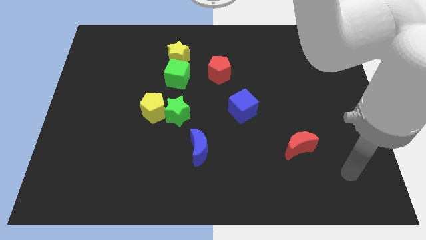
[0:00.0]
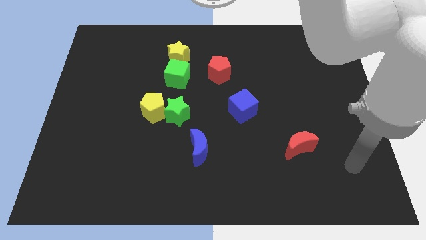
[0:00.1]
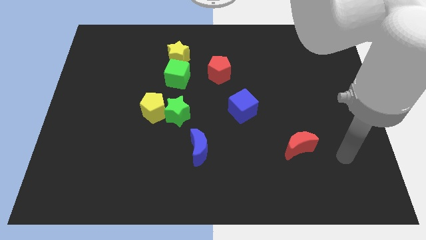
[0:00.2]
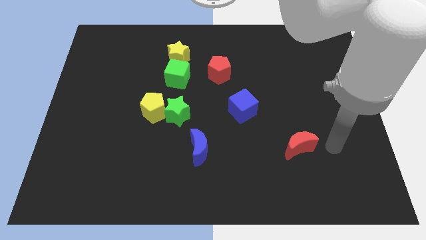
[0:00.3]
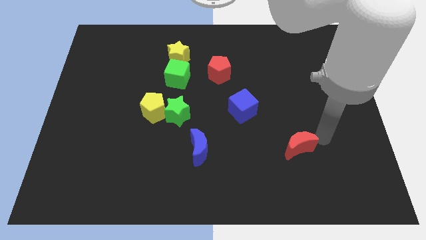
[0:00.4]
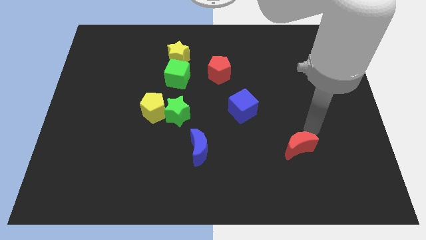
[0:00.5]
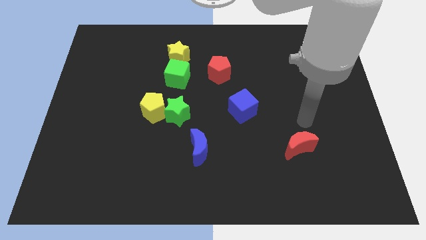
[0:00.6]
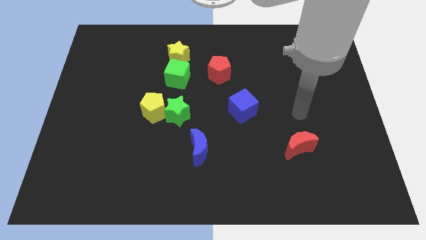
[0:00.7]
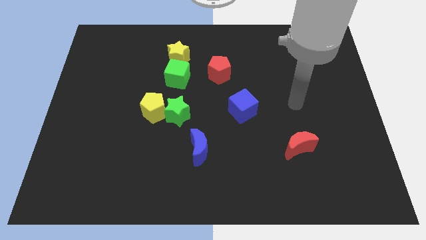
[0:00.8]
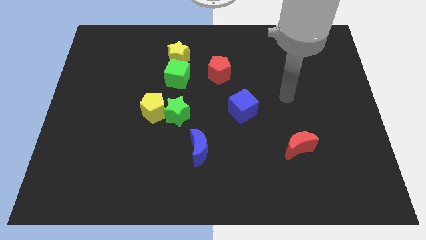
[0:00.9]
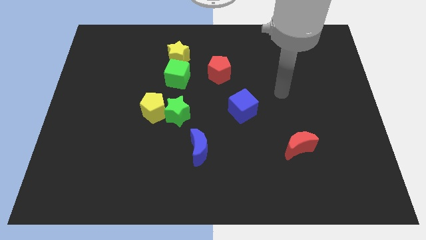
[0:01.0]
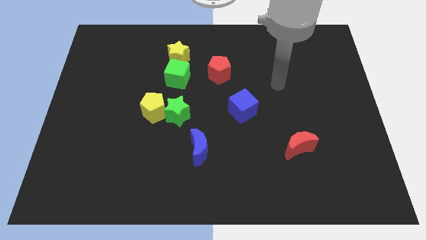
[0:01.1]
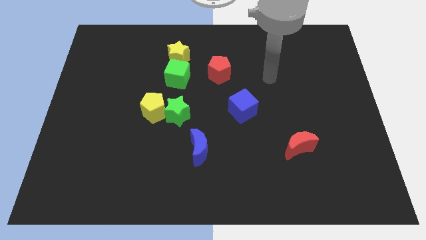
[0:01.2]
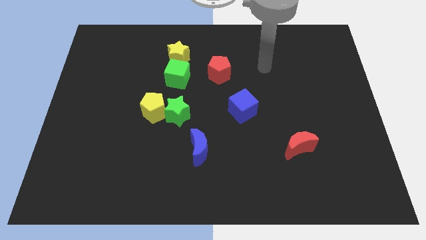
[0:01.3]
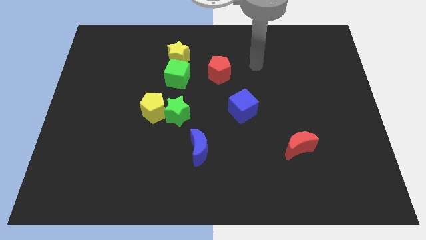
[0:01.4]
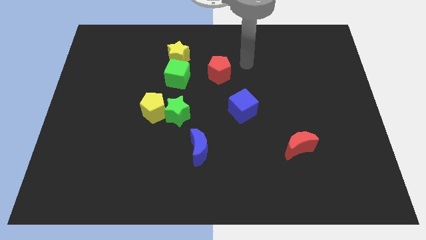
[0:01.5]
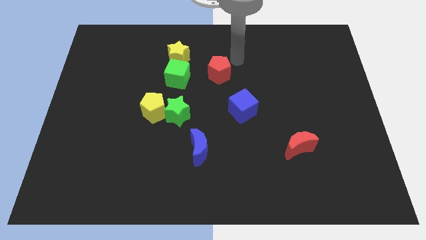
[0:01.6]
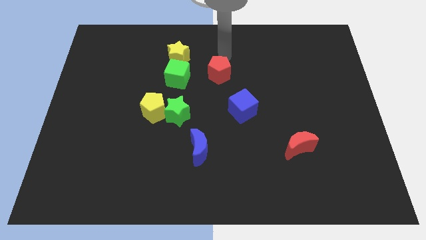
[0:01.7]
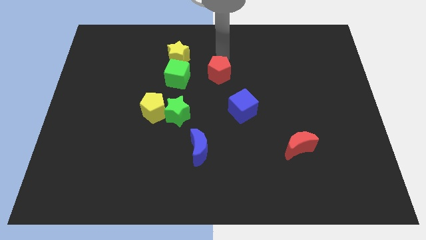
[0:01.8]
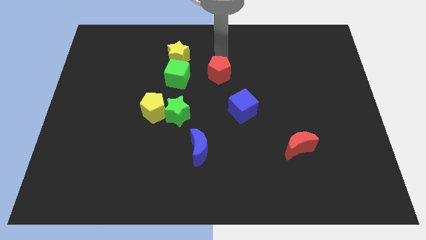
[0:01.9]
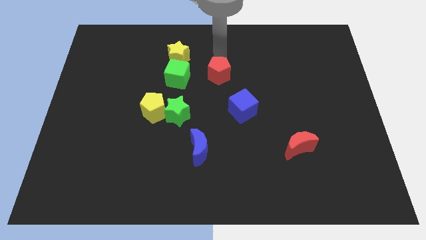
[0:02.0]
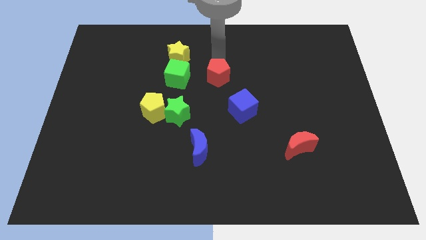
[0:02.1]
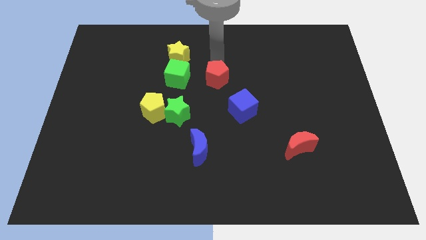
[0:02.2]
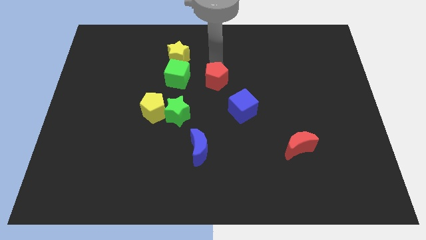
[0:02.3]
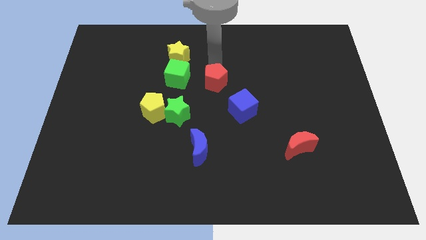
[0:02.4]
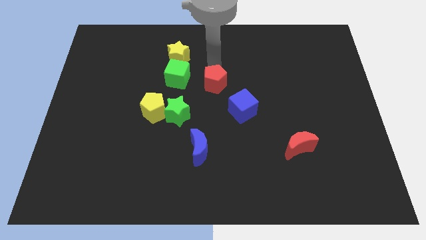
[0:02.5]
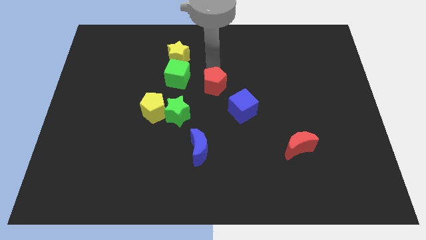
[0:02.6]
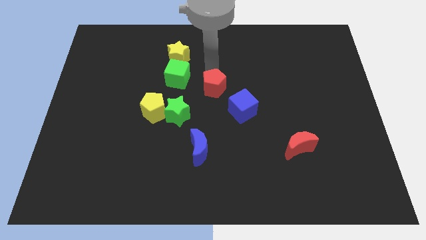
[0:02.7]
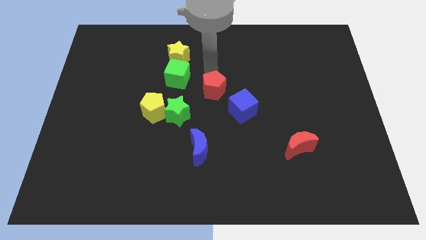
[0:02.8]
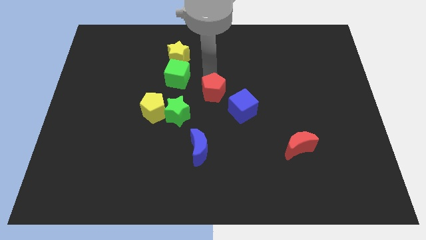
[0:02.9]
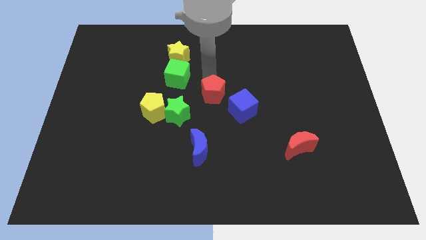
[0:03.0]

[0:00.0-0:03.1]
push the red pentagon downwards a little bit

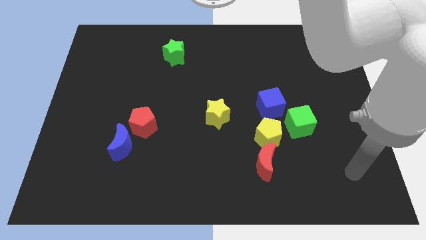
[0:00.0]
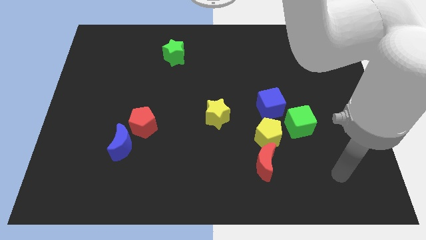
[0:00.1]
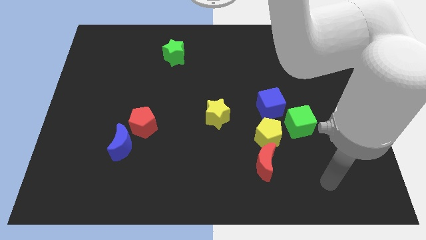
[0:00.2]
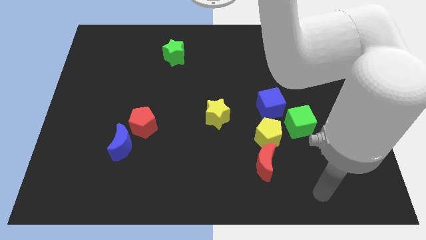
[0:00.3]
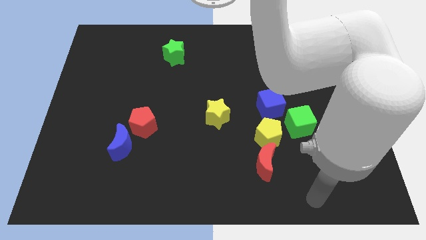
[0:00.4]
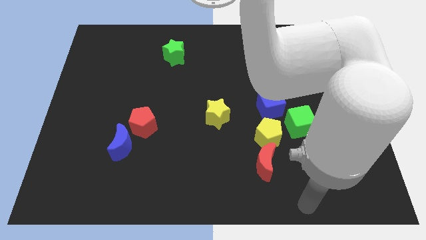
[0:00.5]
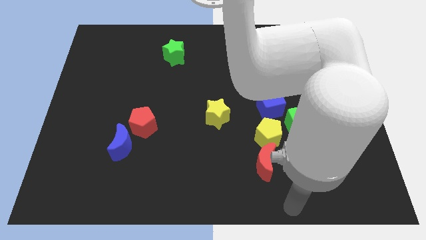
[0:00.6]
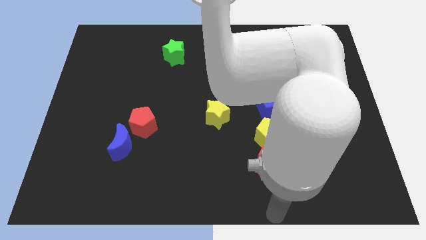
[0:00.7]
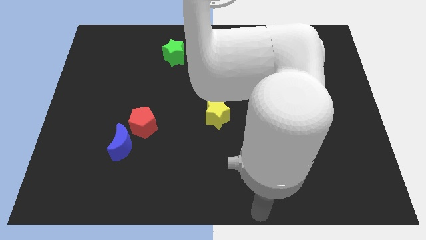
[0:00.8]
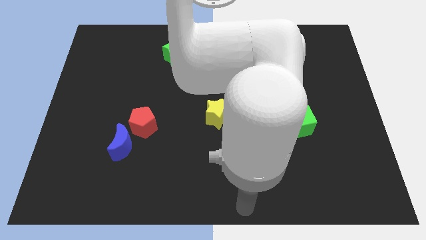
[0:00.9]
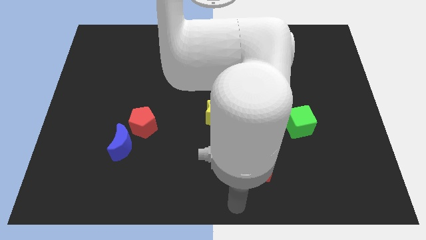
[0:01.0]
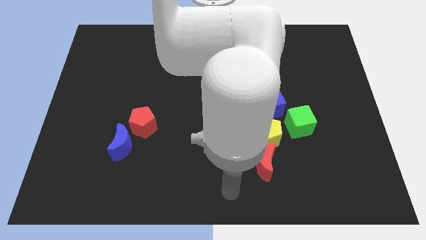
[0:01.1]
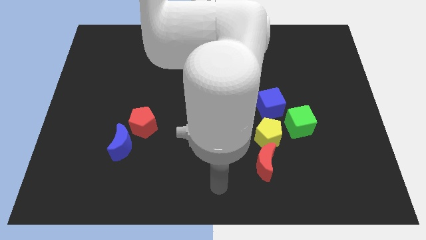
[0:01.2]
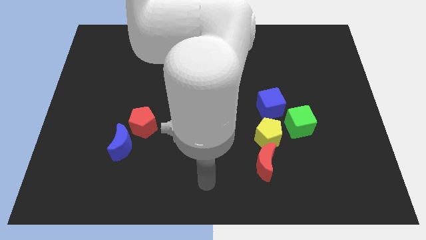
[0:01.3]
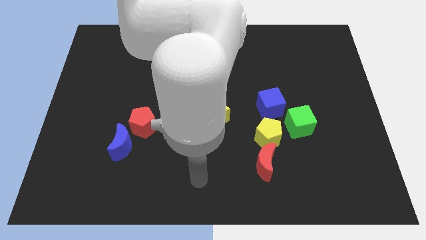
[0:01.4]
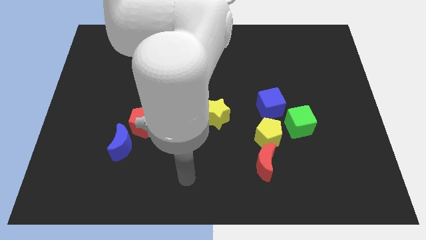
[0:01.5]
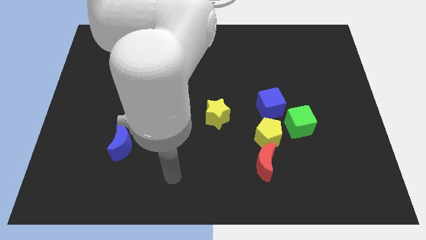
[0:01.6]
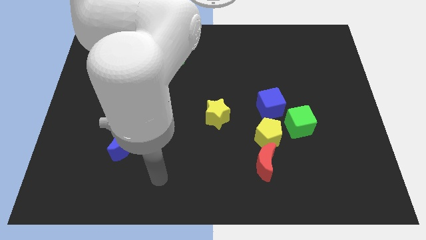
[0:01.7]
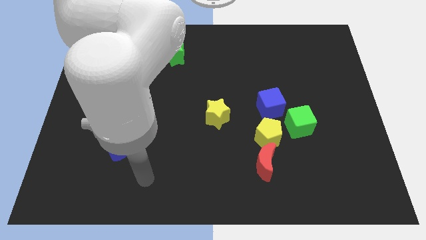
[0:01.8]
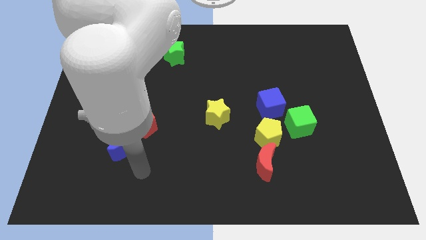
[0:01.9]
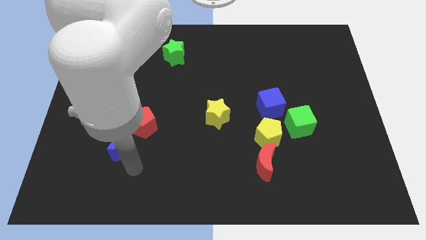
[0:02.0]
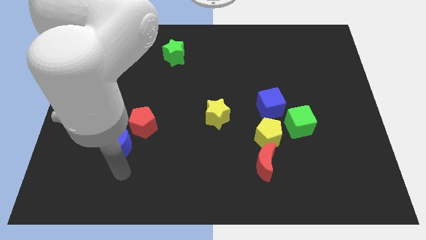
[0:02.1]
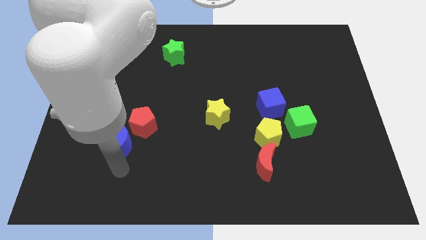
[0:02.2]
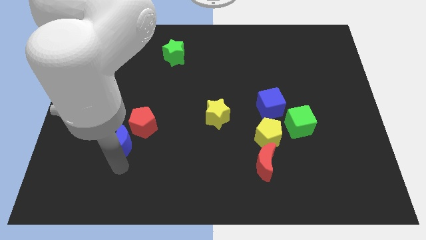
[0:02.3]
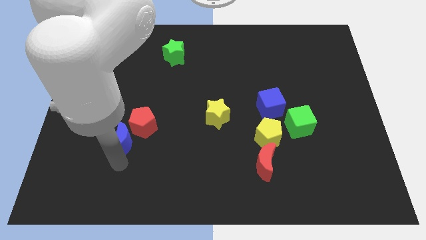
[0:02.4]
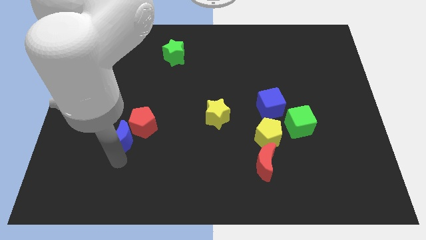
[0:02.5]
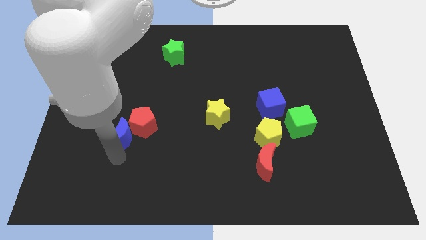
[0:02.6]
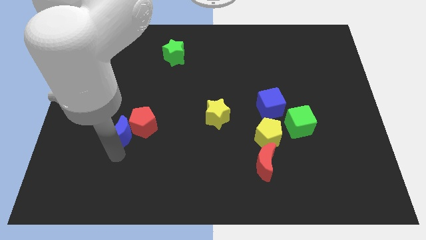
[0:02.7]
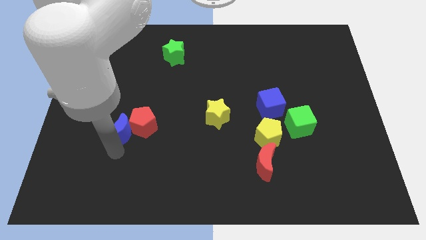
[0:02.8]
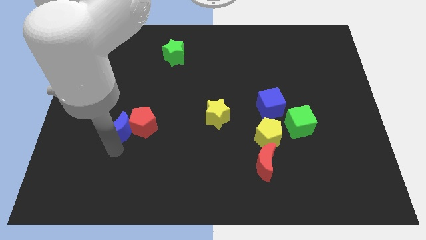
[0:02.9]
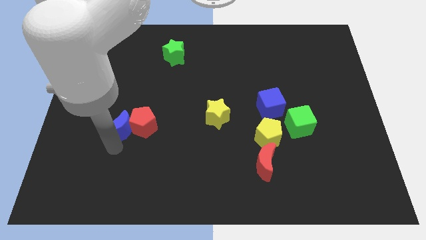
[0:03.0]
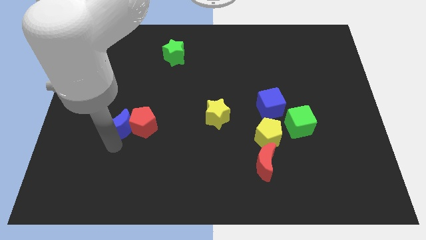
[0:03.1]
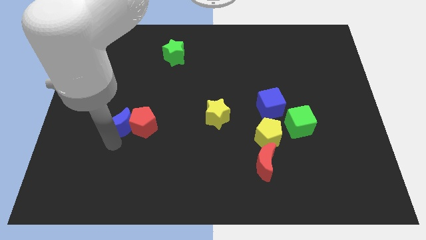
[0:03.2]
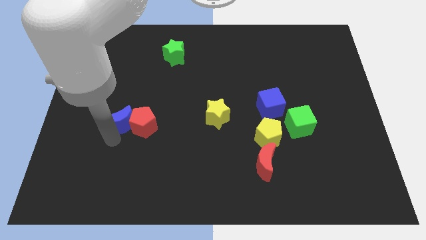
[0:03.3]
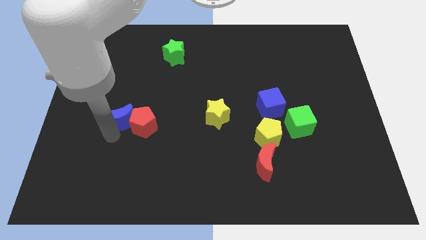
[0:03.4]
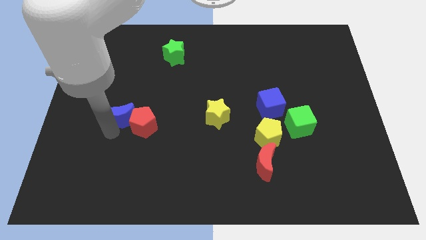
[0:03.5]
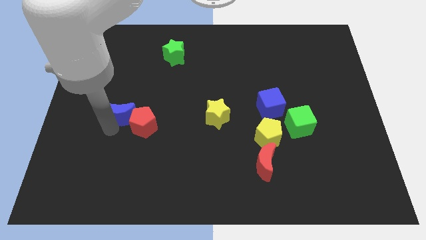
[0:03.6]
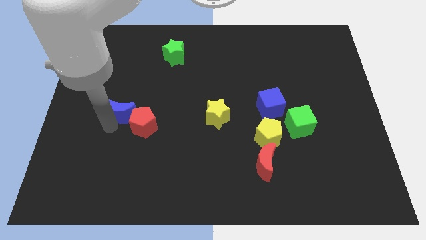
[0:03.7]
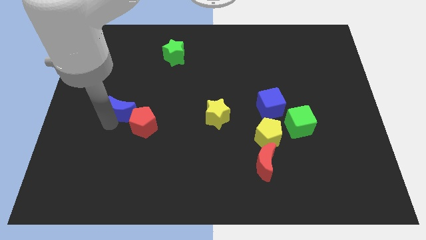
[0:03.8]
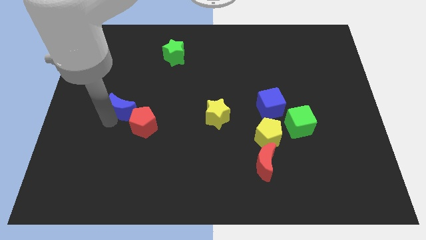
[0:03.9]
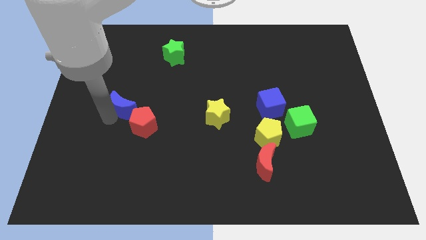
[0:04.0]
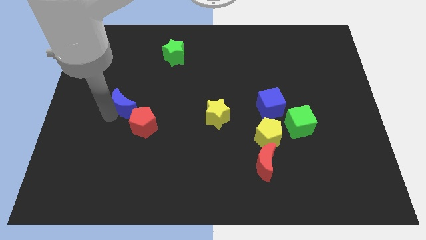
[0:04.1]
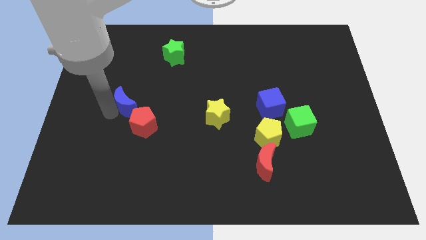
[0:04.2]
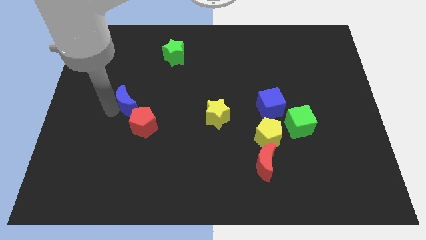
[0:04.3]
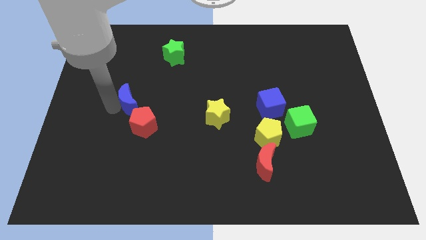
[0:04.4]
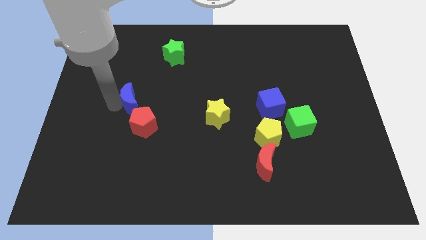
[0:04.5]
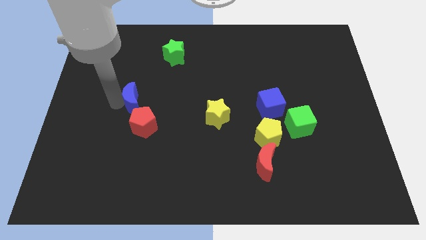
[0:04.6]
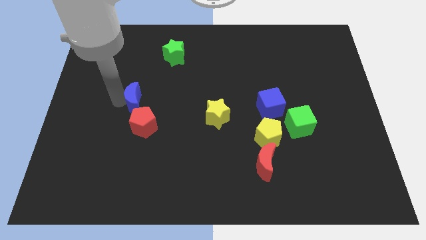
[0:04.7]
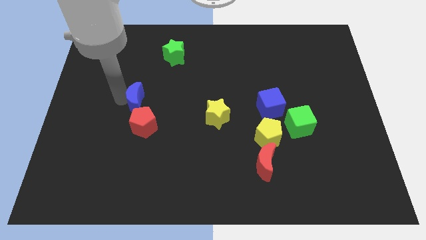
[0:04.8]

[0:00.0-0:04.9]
push the blue moon a little diagonally upwards and right

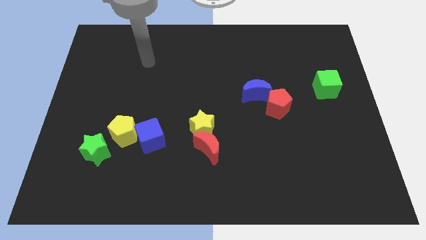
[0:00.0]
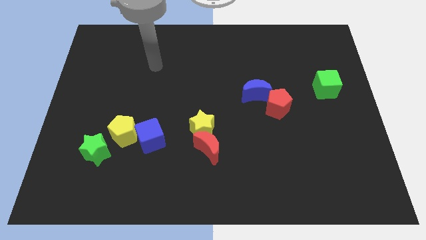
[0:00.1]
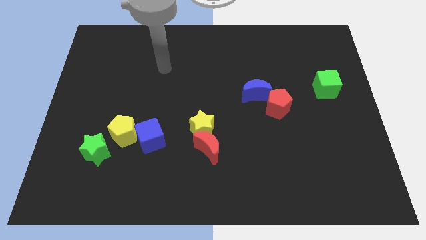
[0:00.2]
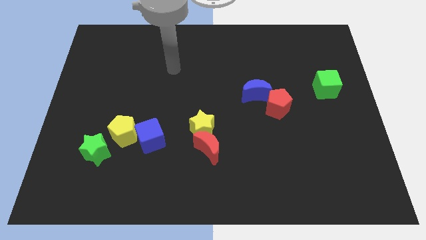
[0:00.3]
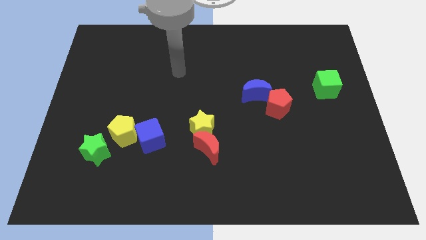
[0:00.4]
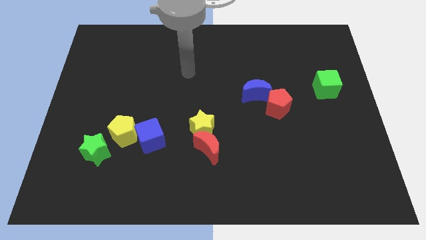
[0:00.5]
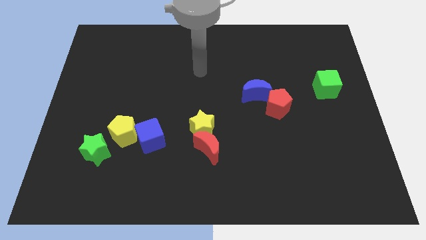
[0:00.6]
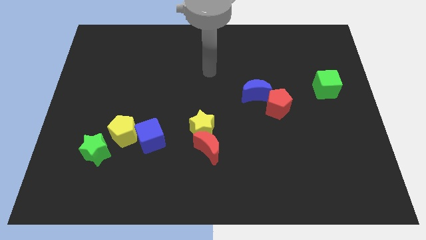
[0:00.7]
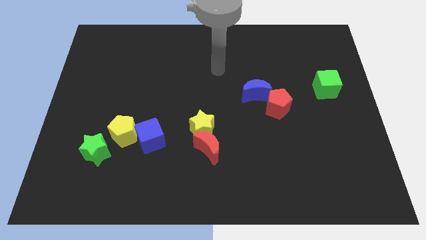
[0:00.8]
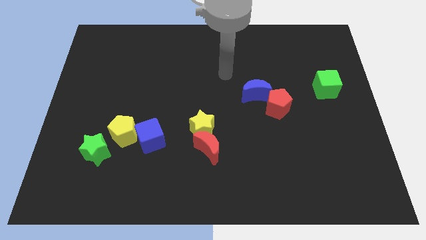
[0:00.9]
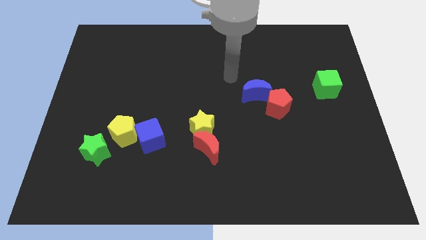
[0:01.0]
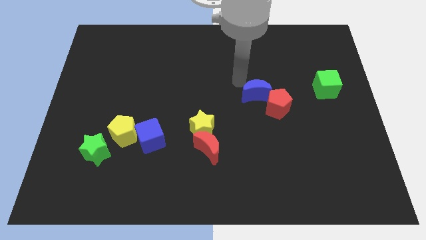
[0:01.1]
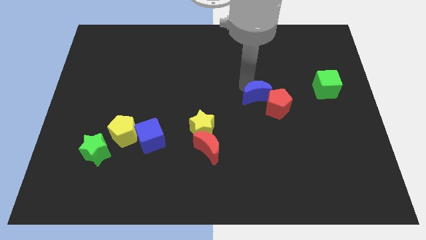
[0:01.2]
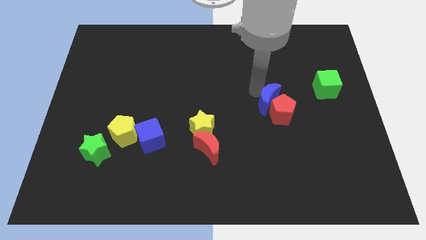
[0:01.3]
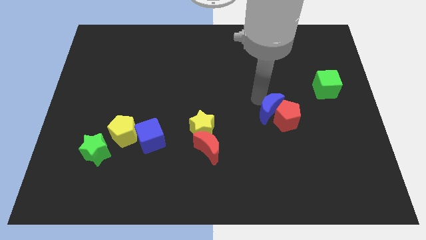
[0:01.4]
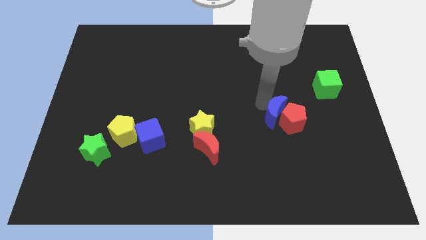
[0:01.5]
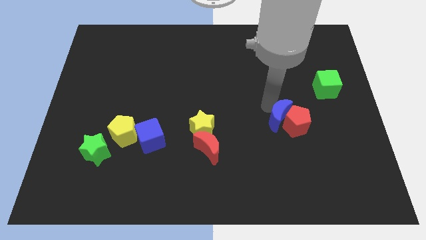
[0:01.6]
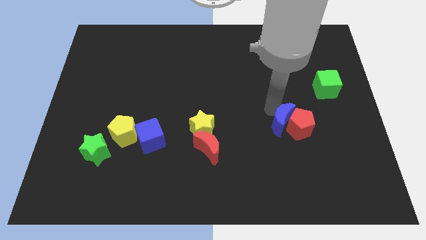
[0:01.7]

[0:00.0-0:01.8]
slightly push the red pentagon downwards and to the right
